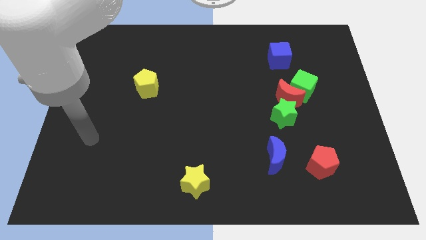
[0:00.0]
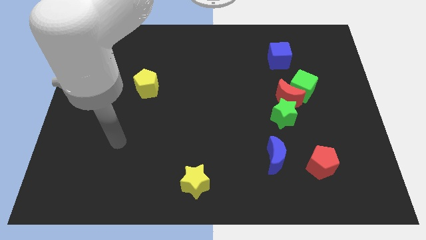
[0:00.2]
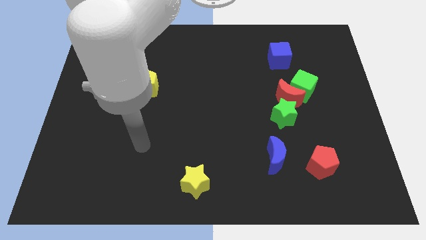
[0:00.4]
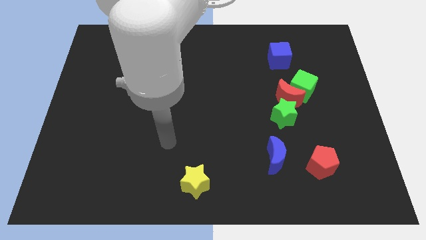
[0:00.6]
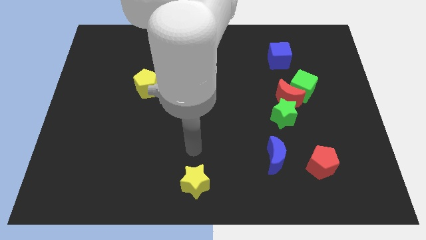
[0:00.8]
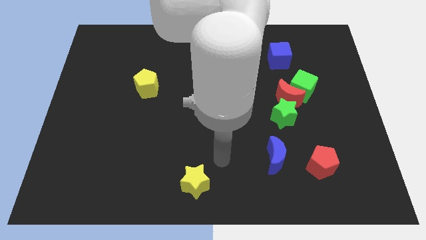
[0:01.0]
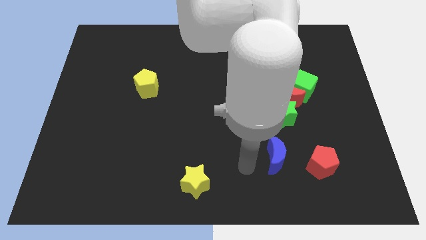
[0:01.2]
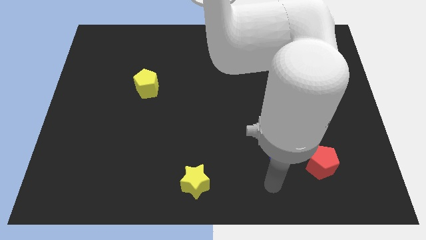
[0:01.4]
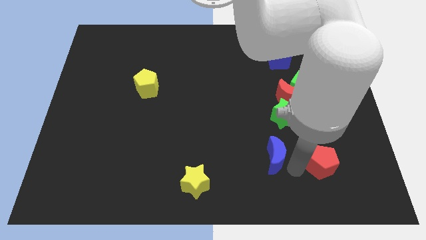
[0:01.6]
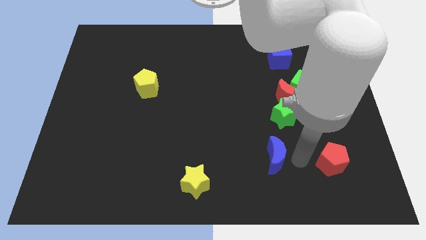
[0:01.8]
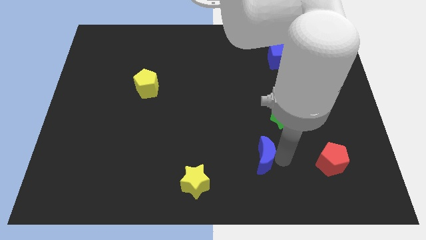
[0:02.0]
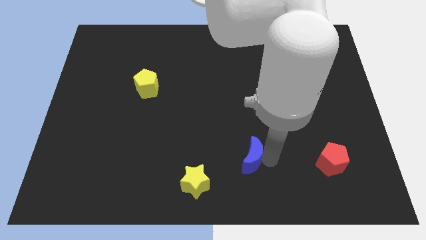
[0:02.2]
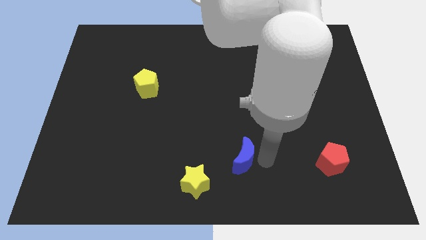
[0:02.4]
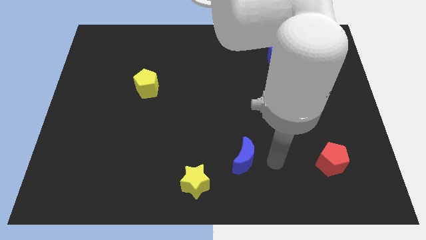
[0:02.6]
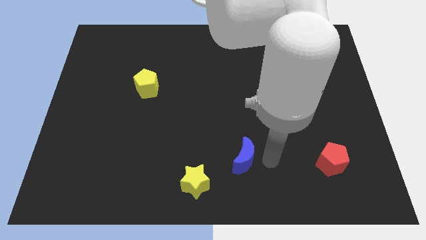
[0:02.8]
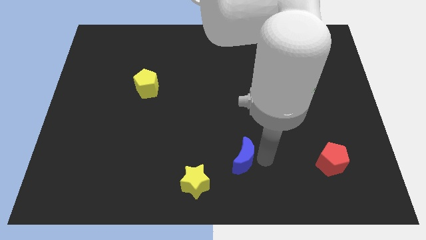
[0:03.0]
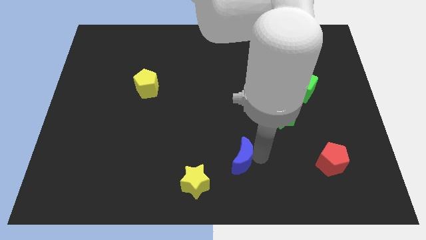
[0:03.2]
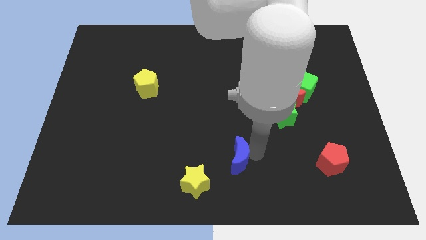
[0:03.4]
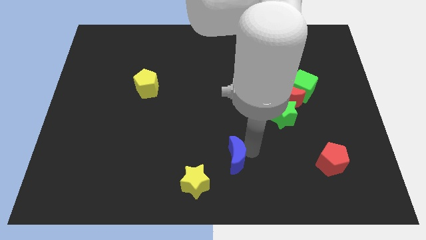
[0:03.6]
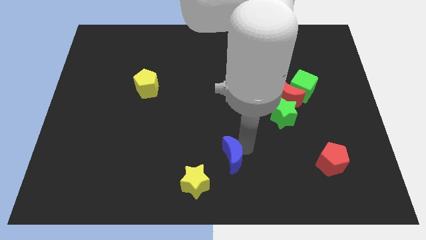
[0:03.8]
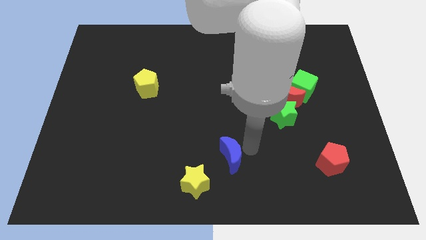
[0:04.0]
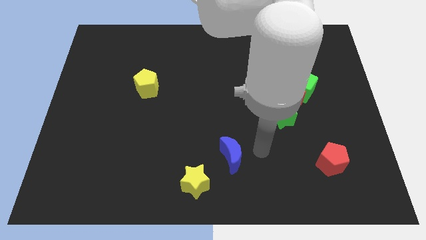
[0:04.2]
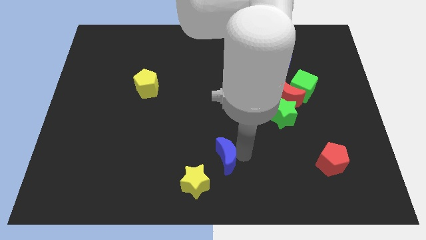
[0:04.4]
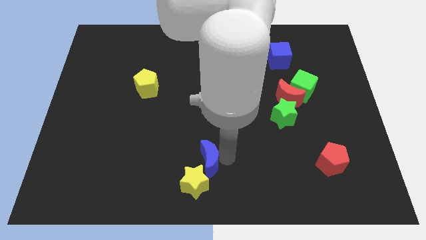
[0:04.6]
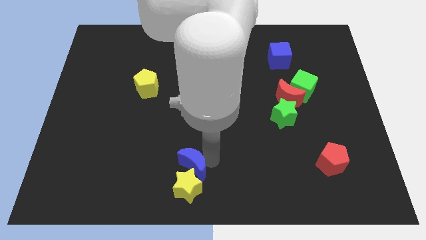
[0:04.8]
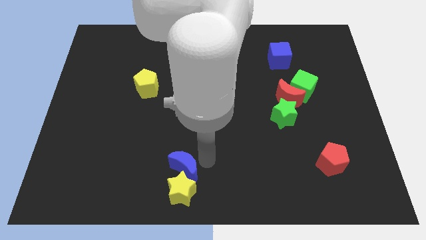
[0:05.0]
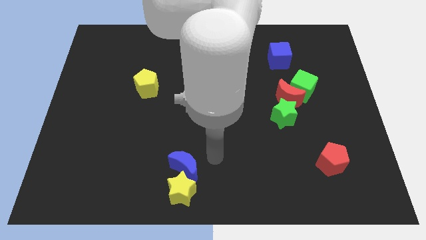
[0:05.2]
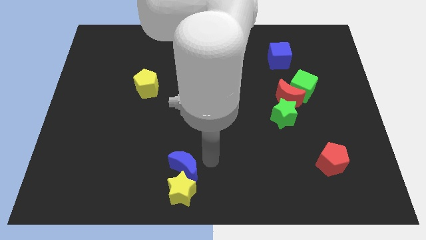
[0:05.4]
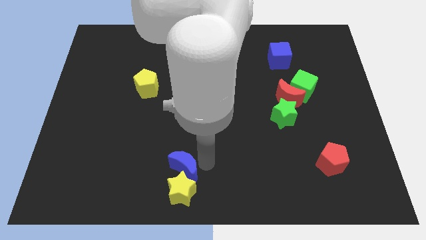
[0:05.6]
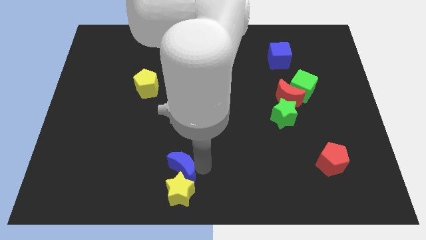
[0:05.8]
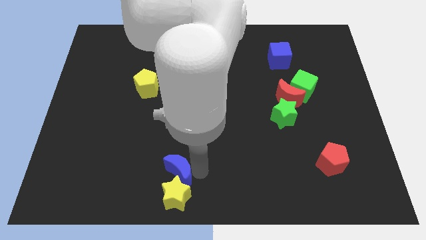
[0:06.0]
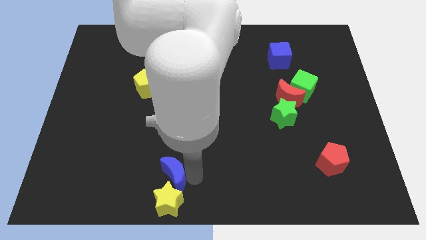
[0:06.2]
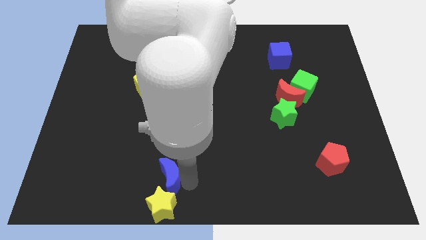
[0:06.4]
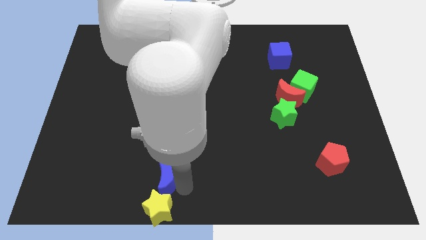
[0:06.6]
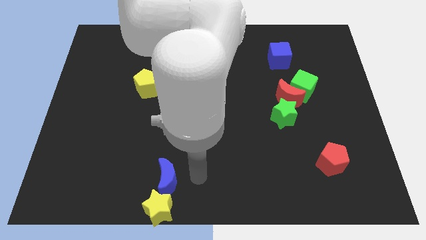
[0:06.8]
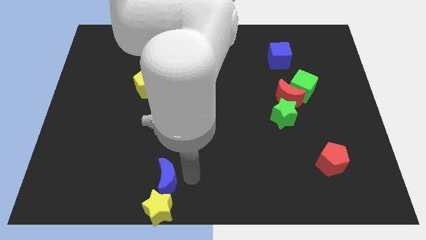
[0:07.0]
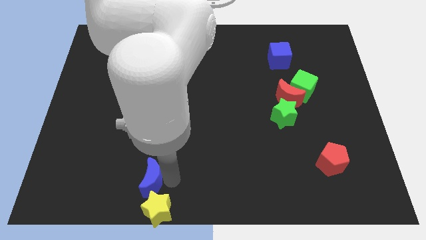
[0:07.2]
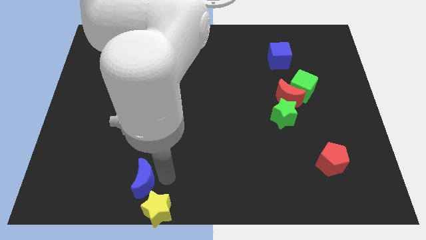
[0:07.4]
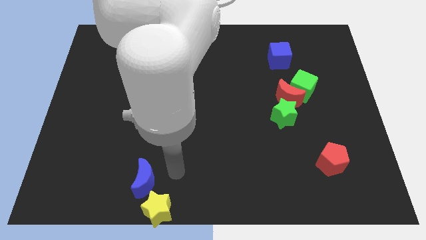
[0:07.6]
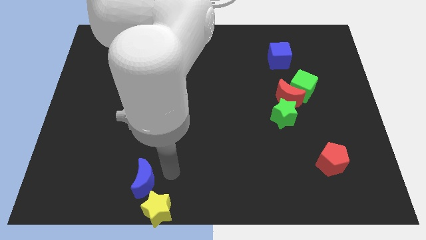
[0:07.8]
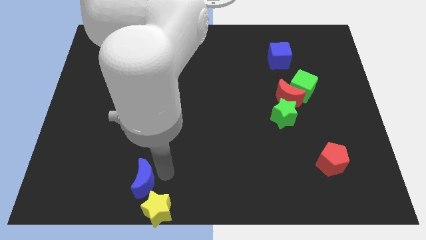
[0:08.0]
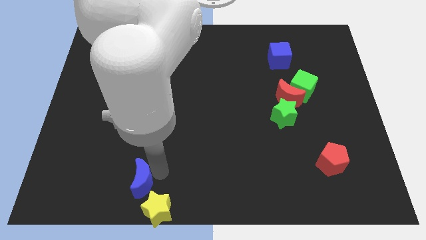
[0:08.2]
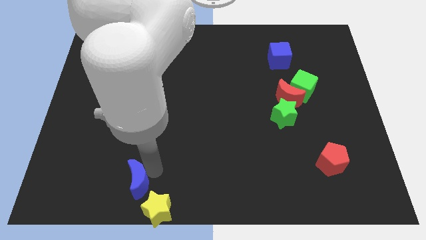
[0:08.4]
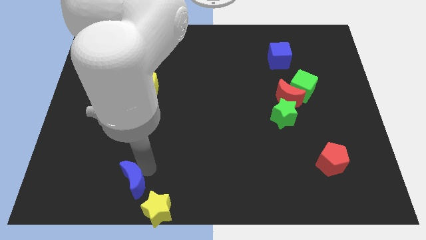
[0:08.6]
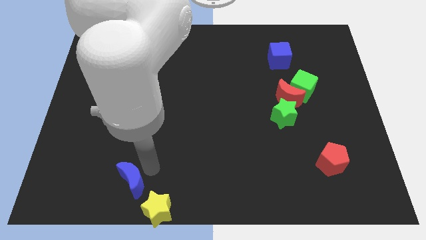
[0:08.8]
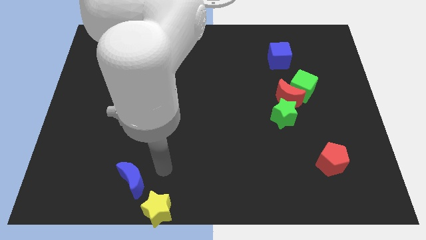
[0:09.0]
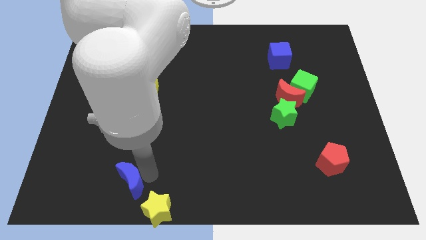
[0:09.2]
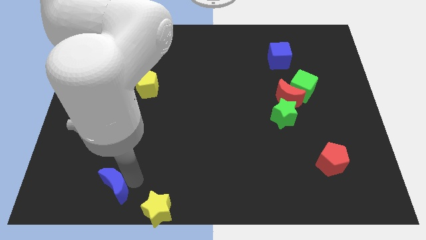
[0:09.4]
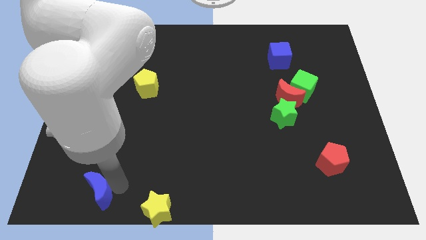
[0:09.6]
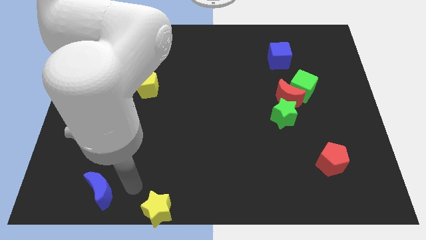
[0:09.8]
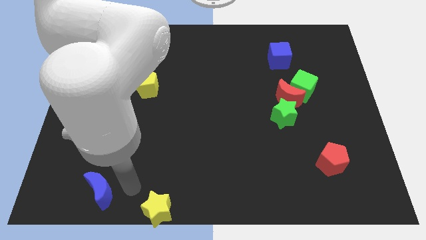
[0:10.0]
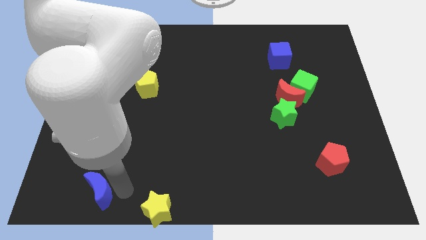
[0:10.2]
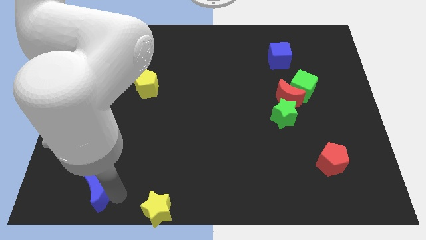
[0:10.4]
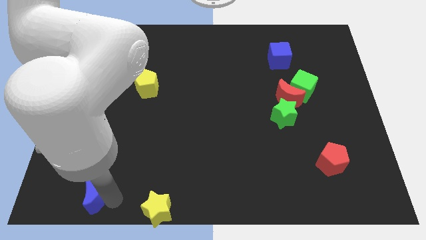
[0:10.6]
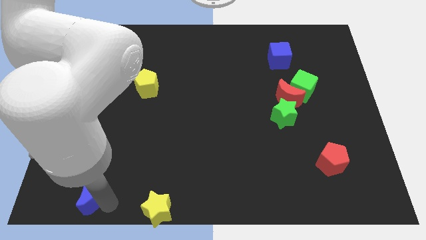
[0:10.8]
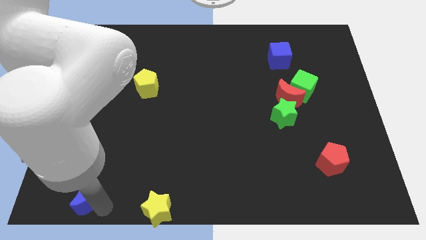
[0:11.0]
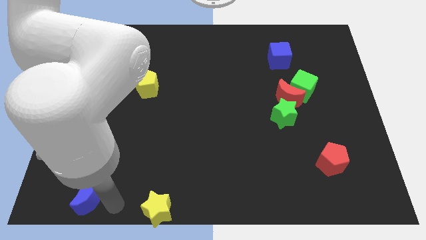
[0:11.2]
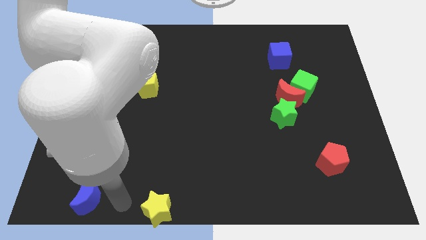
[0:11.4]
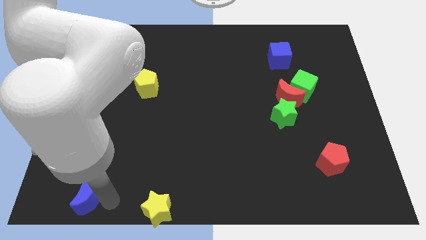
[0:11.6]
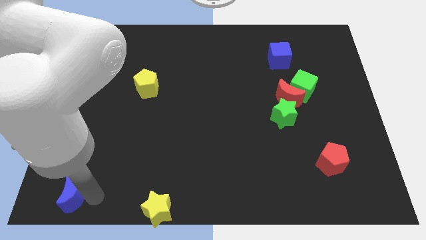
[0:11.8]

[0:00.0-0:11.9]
move the blue moon to the bottom left corner
